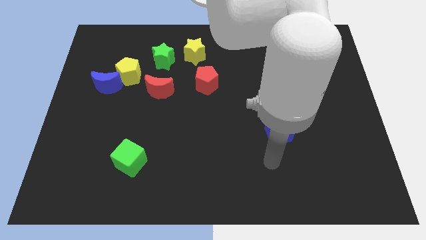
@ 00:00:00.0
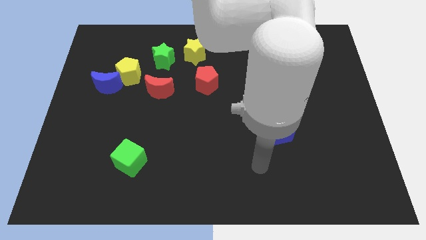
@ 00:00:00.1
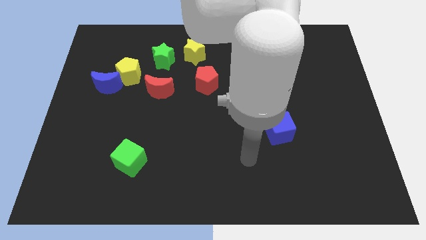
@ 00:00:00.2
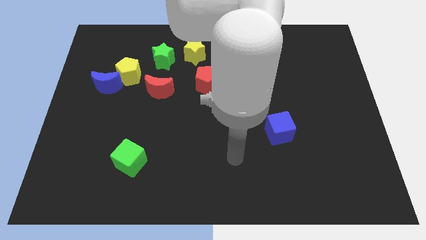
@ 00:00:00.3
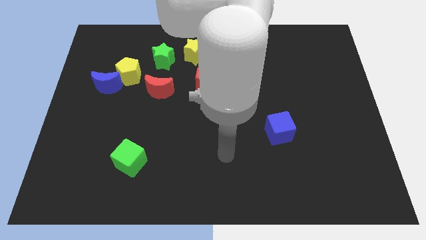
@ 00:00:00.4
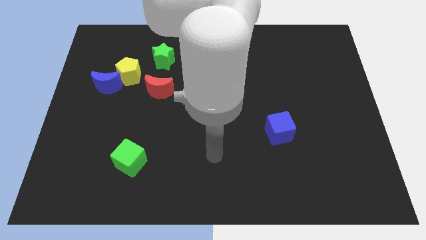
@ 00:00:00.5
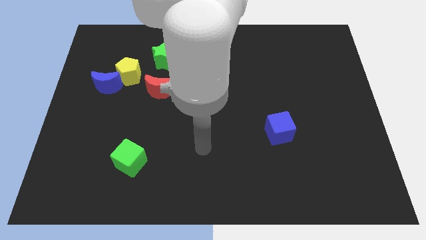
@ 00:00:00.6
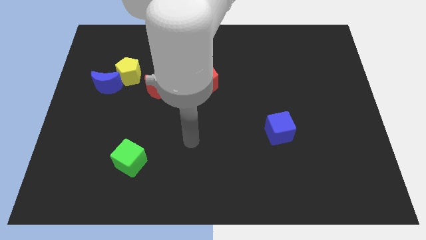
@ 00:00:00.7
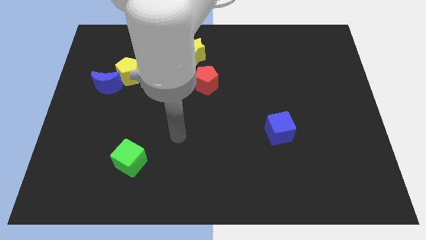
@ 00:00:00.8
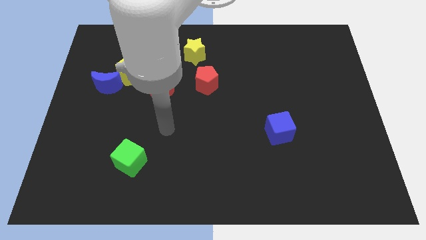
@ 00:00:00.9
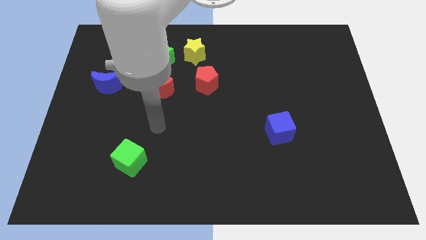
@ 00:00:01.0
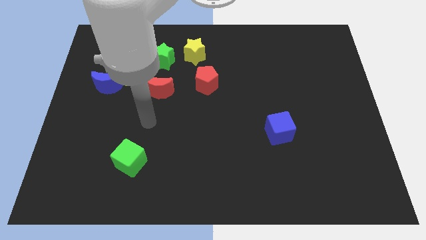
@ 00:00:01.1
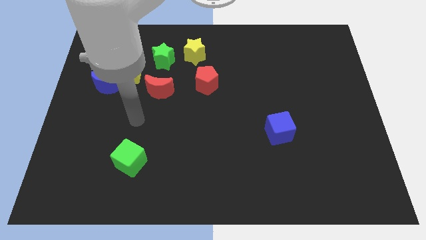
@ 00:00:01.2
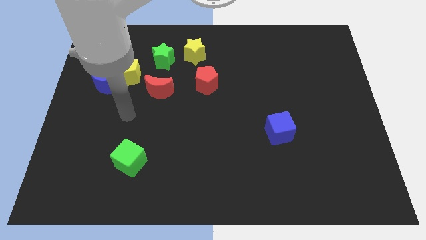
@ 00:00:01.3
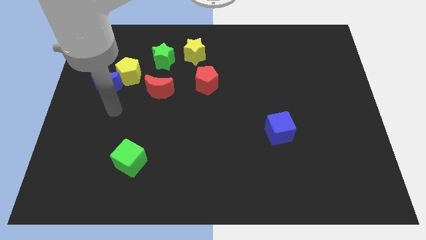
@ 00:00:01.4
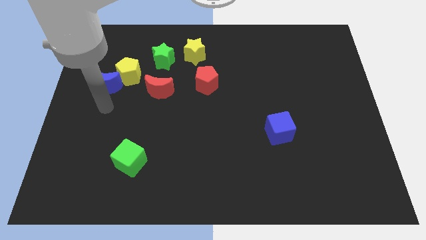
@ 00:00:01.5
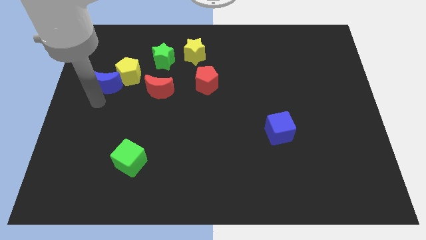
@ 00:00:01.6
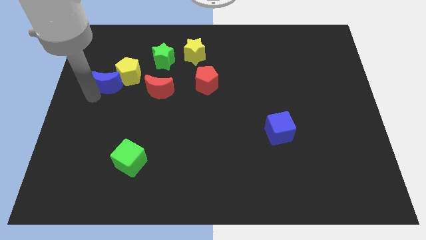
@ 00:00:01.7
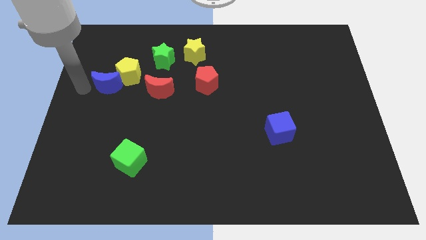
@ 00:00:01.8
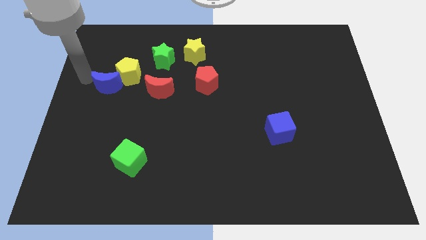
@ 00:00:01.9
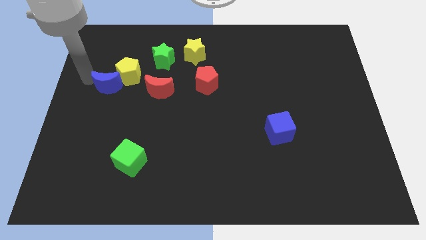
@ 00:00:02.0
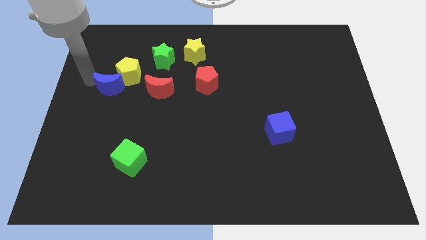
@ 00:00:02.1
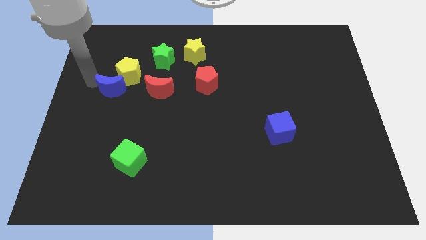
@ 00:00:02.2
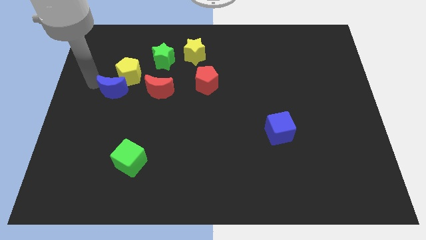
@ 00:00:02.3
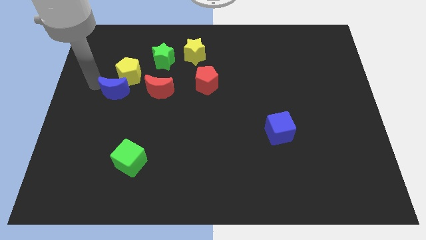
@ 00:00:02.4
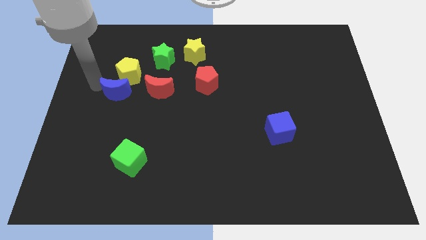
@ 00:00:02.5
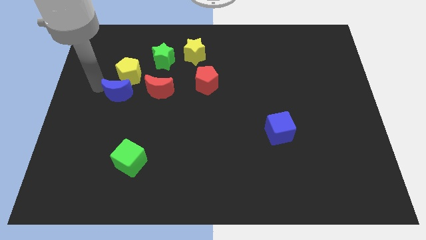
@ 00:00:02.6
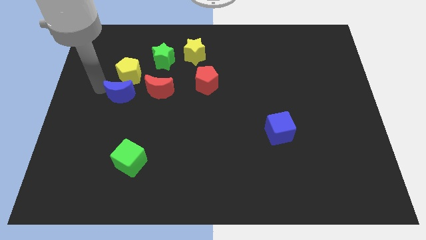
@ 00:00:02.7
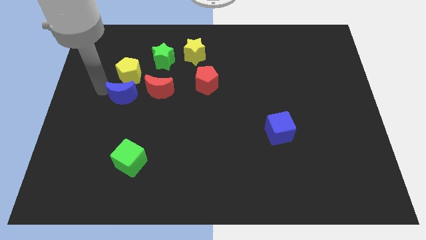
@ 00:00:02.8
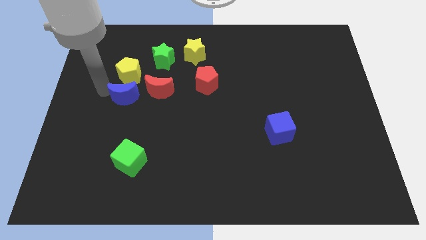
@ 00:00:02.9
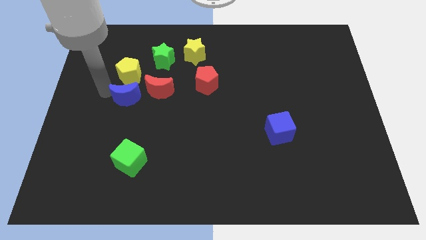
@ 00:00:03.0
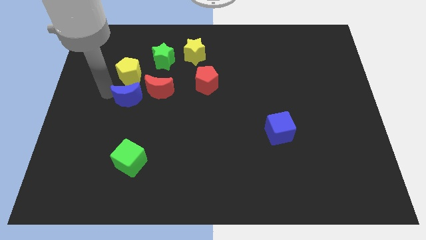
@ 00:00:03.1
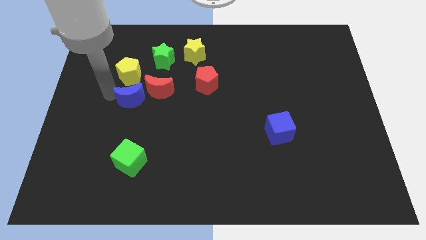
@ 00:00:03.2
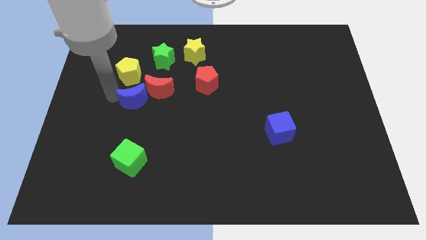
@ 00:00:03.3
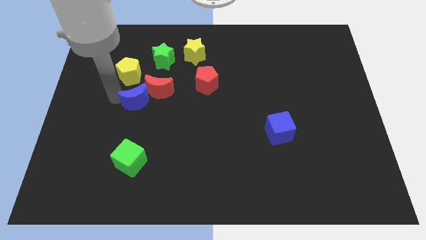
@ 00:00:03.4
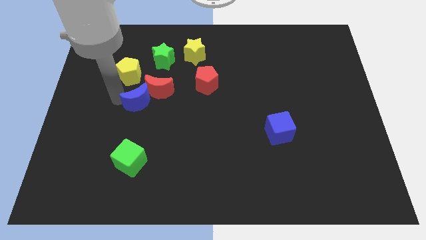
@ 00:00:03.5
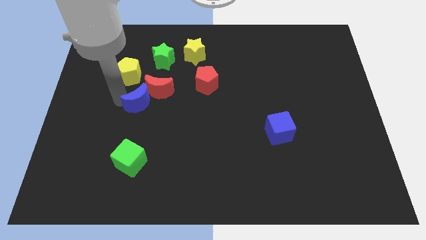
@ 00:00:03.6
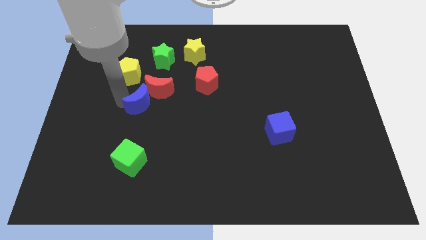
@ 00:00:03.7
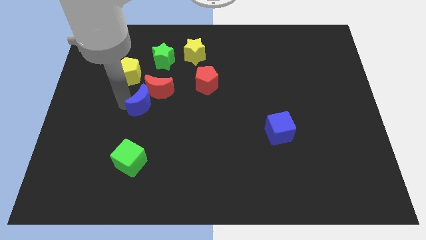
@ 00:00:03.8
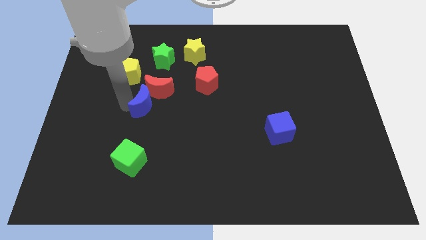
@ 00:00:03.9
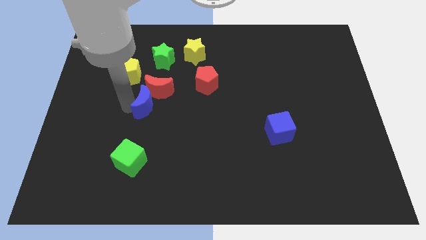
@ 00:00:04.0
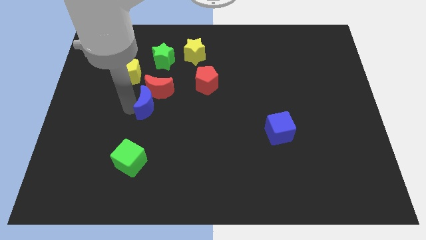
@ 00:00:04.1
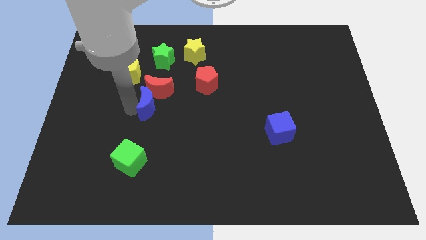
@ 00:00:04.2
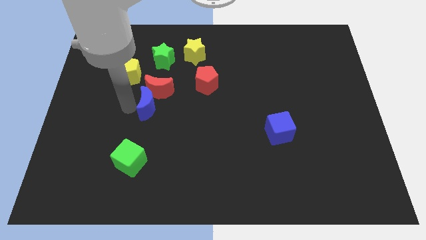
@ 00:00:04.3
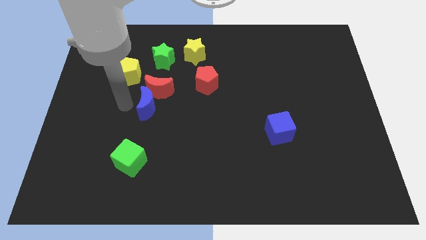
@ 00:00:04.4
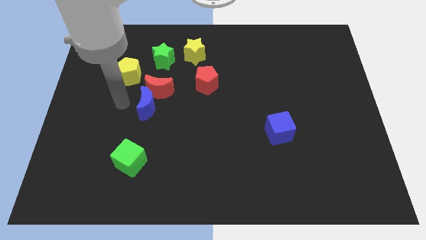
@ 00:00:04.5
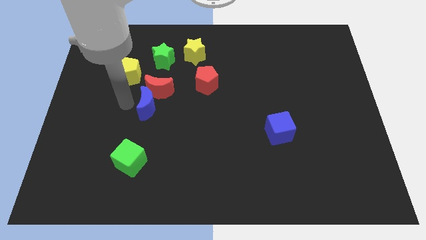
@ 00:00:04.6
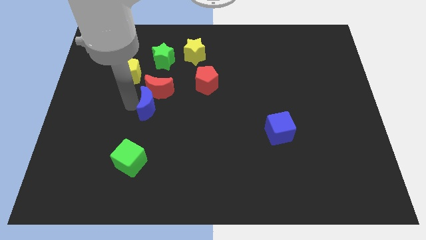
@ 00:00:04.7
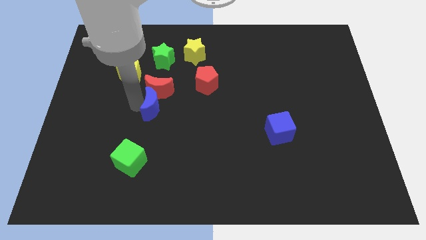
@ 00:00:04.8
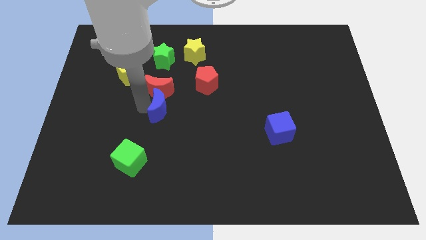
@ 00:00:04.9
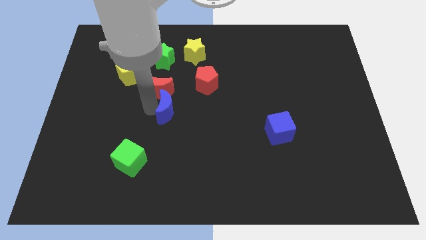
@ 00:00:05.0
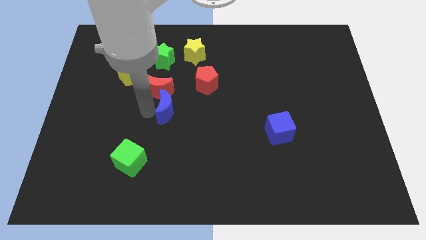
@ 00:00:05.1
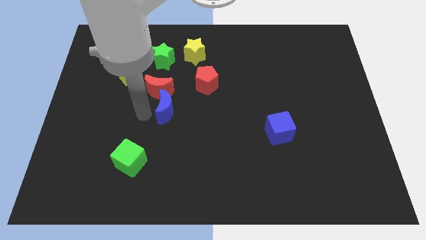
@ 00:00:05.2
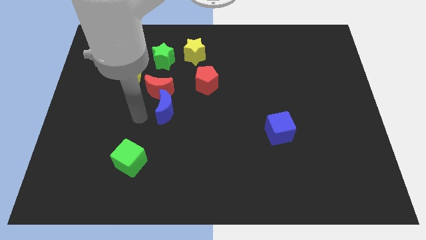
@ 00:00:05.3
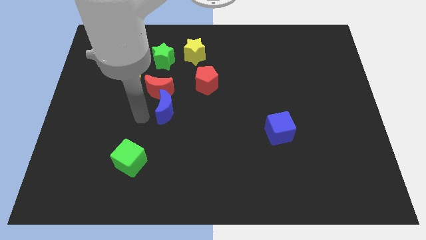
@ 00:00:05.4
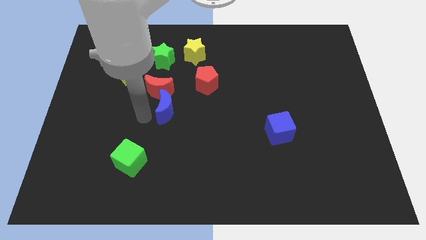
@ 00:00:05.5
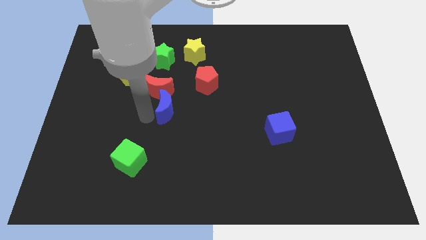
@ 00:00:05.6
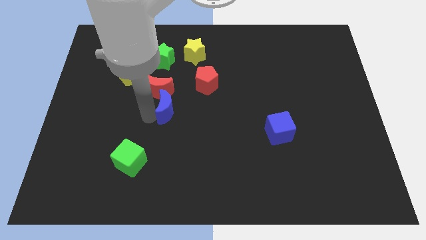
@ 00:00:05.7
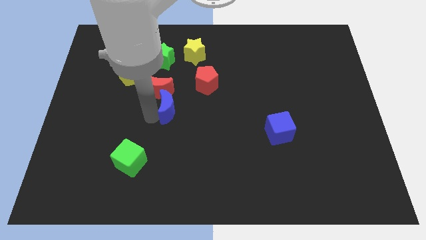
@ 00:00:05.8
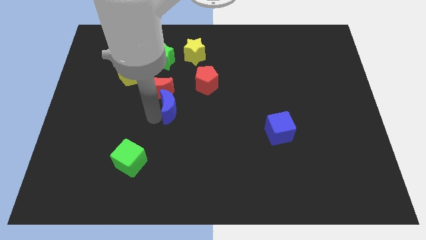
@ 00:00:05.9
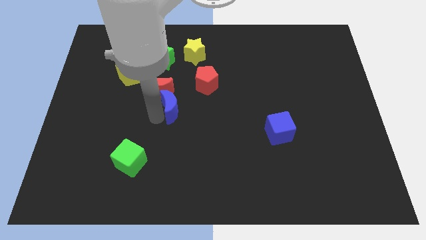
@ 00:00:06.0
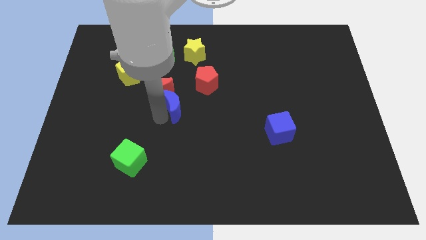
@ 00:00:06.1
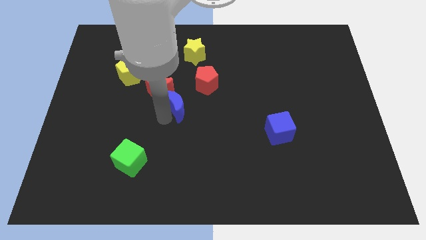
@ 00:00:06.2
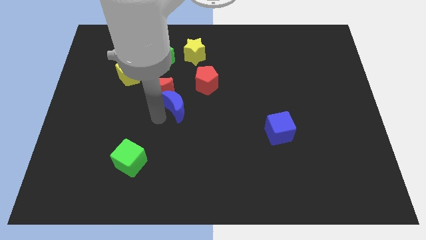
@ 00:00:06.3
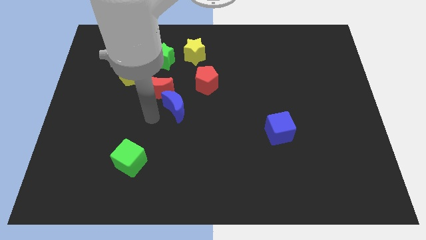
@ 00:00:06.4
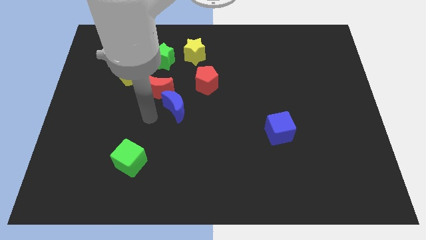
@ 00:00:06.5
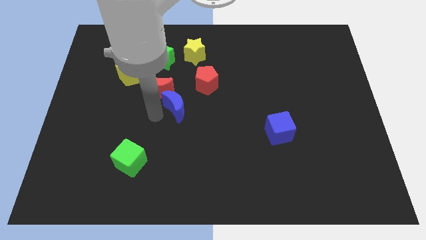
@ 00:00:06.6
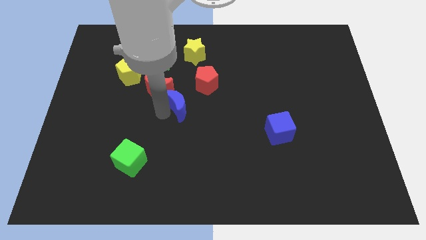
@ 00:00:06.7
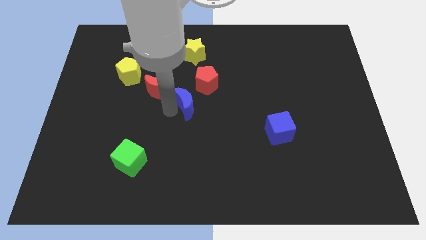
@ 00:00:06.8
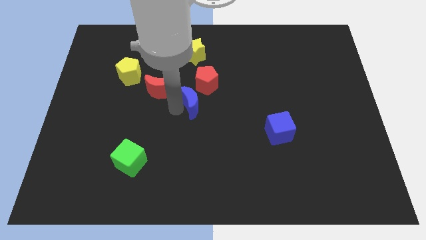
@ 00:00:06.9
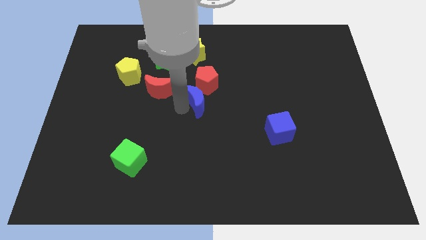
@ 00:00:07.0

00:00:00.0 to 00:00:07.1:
slide the blue moon right

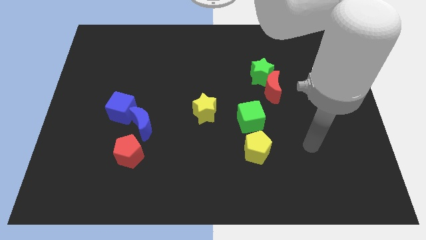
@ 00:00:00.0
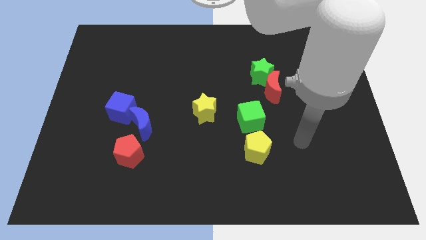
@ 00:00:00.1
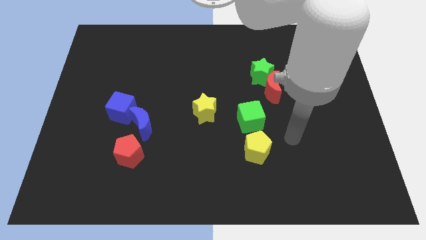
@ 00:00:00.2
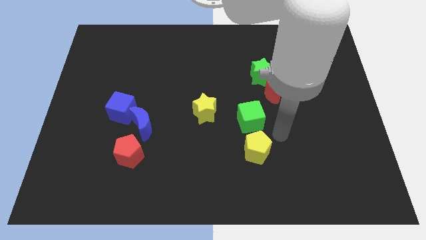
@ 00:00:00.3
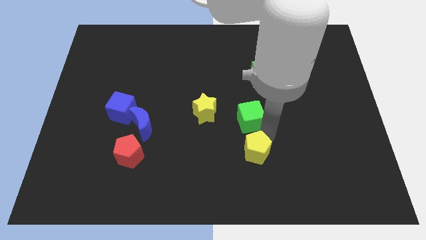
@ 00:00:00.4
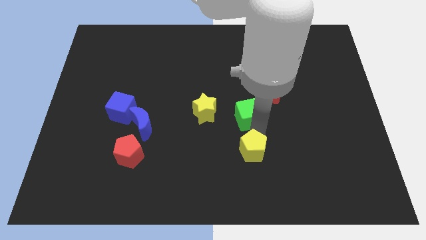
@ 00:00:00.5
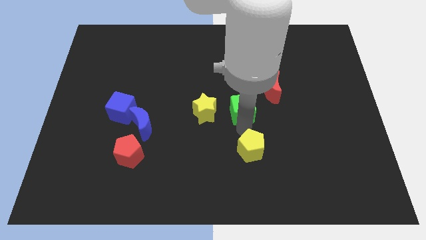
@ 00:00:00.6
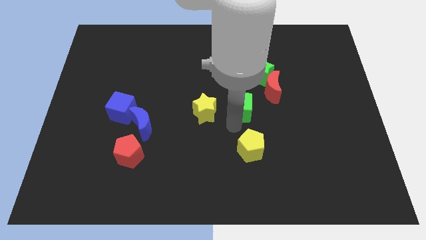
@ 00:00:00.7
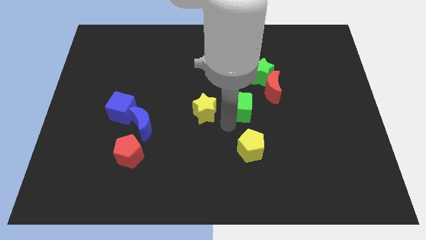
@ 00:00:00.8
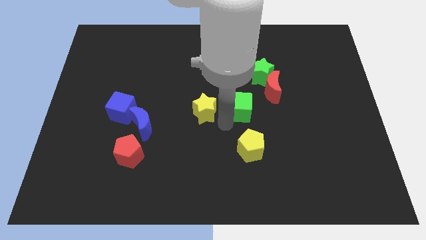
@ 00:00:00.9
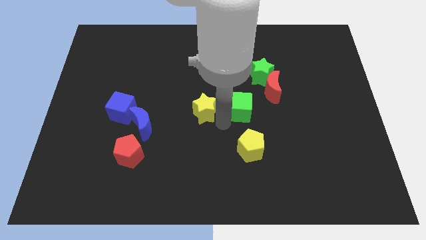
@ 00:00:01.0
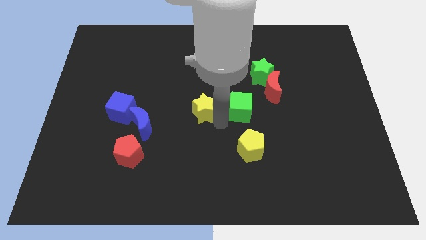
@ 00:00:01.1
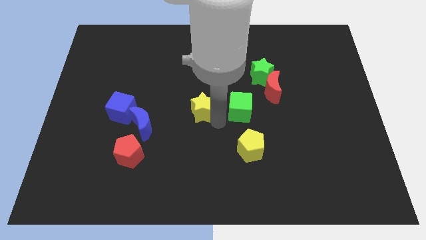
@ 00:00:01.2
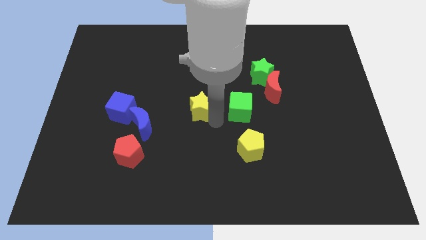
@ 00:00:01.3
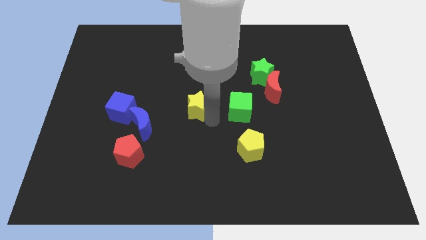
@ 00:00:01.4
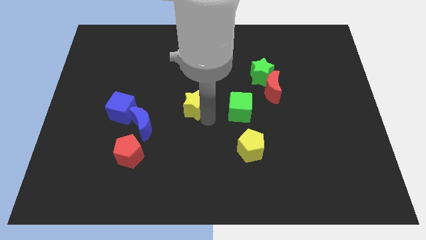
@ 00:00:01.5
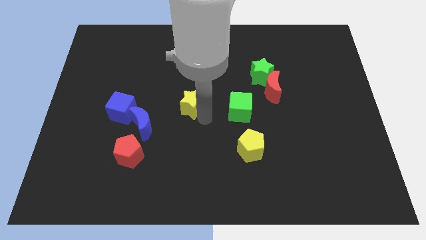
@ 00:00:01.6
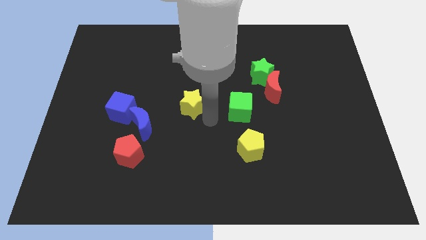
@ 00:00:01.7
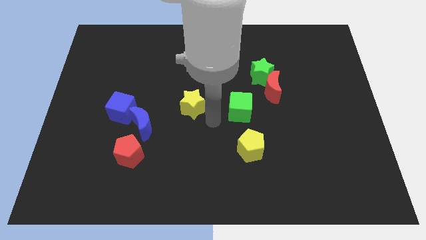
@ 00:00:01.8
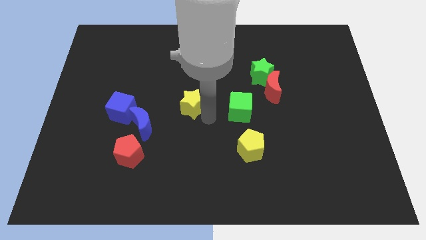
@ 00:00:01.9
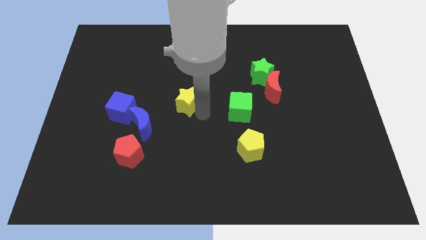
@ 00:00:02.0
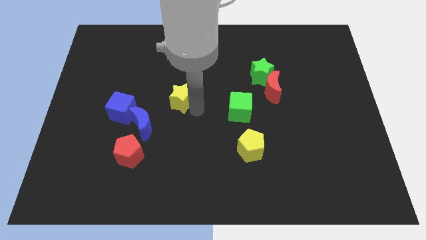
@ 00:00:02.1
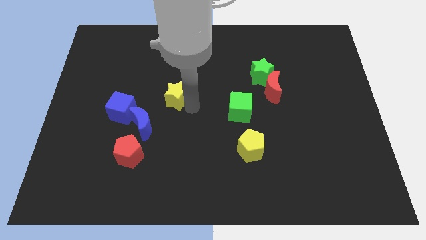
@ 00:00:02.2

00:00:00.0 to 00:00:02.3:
slightly push the yellow star upwards and left
